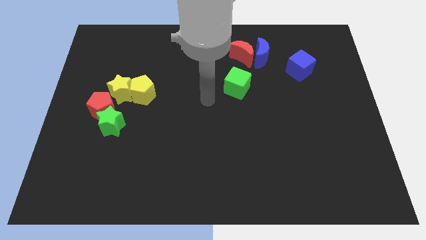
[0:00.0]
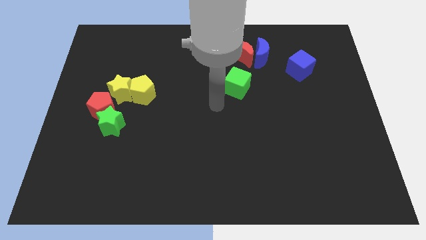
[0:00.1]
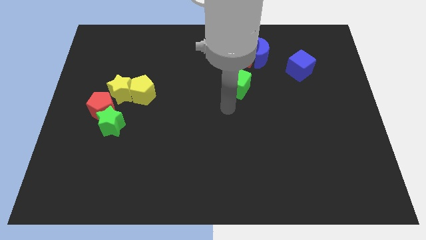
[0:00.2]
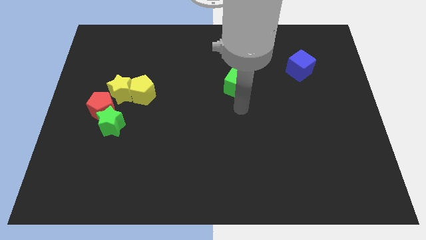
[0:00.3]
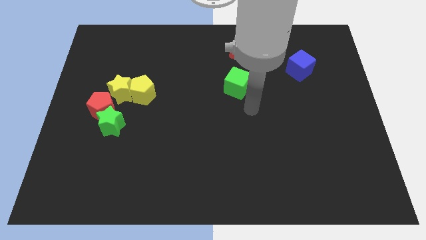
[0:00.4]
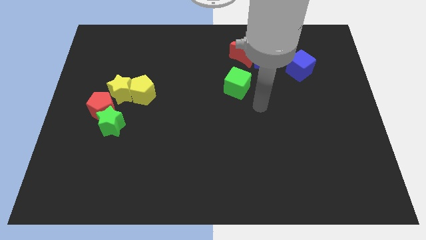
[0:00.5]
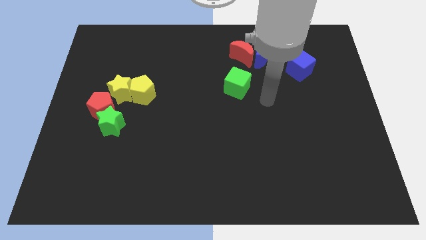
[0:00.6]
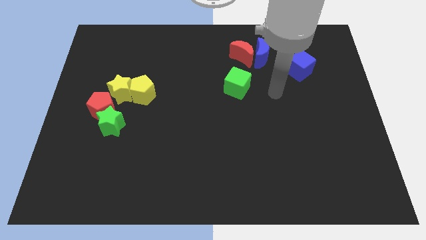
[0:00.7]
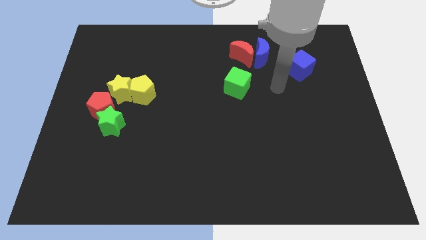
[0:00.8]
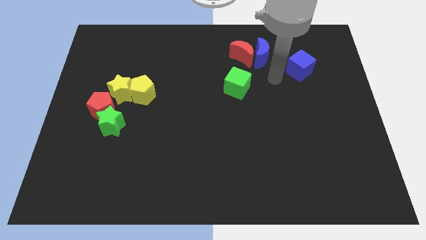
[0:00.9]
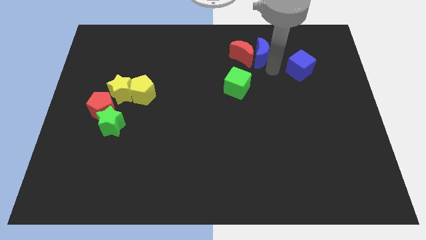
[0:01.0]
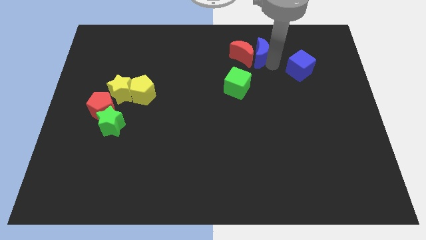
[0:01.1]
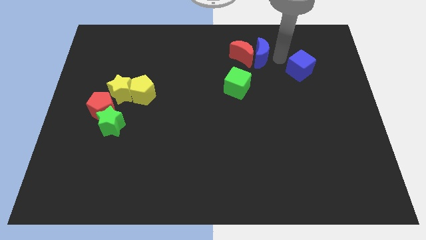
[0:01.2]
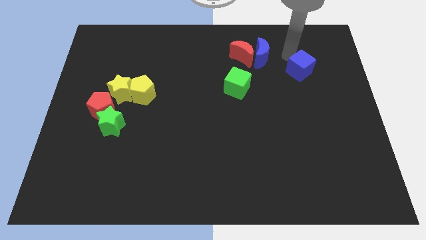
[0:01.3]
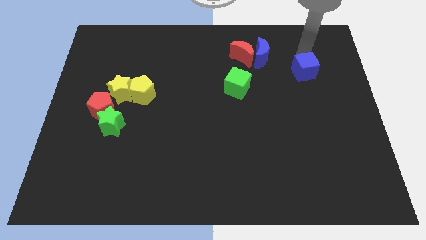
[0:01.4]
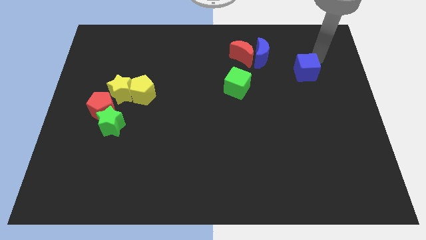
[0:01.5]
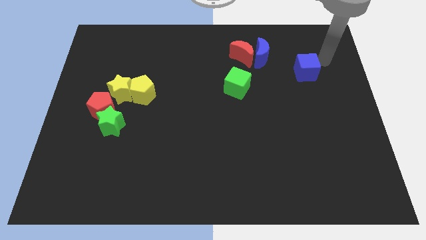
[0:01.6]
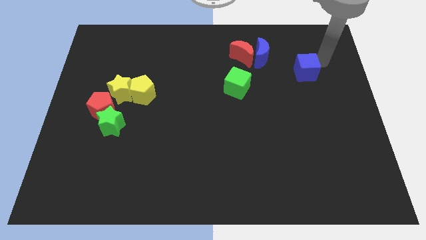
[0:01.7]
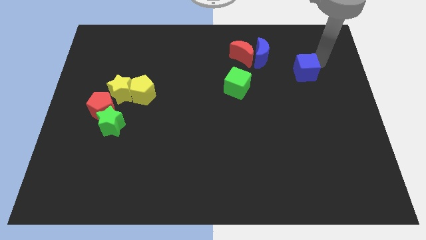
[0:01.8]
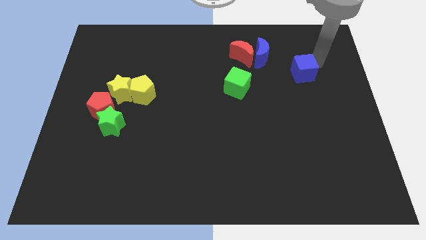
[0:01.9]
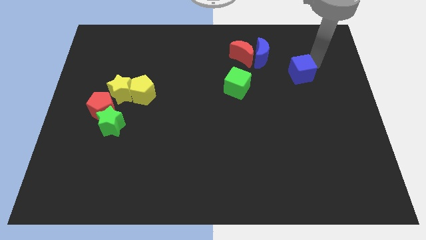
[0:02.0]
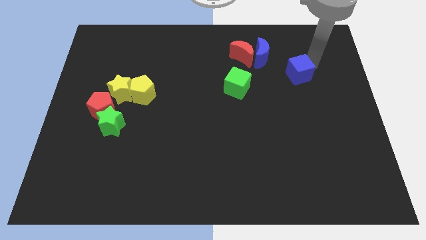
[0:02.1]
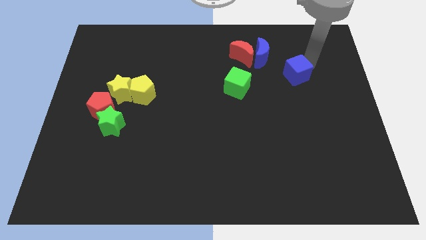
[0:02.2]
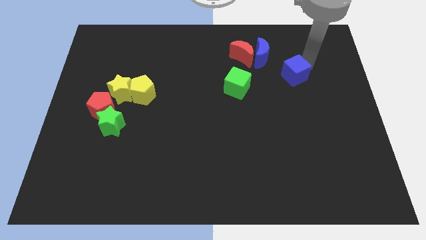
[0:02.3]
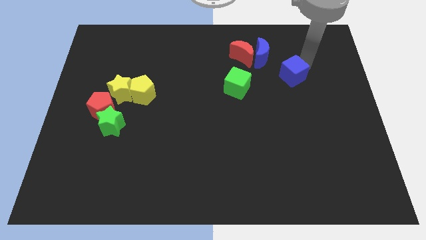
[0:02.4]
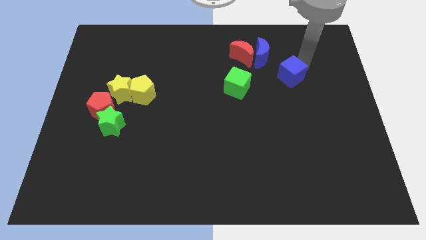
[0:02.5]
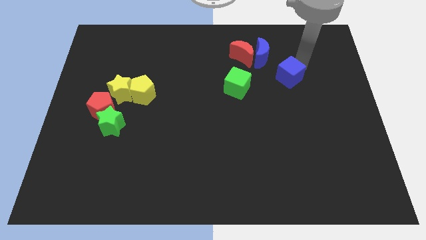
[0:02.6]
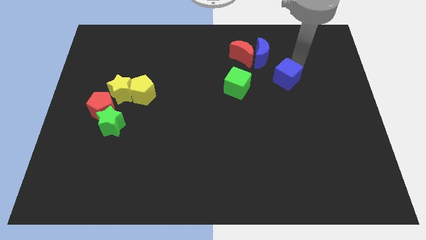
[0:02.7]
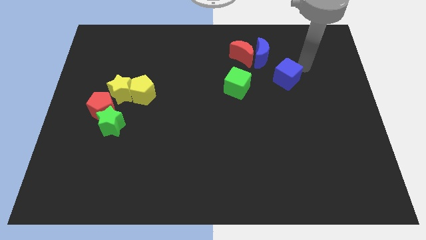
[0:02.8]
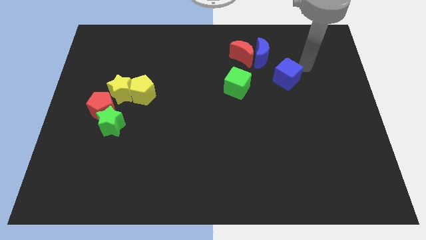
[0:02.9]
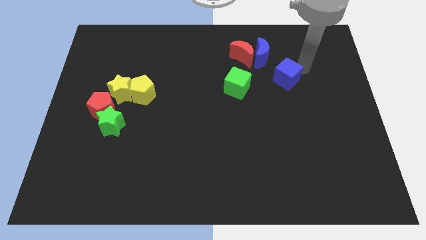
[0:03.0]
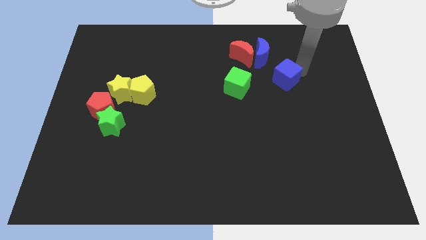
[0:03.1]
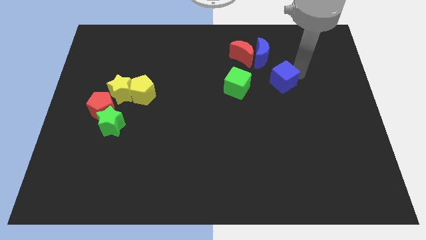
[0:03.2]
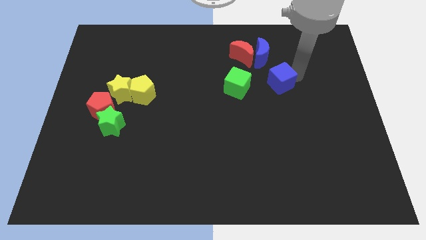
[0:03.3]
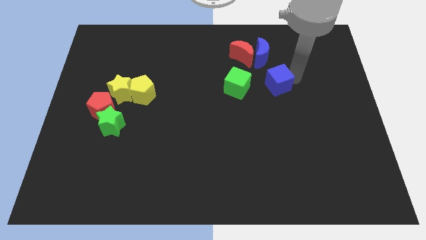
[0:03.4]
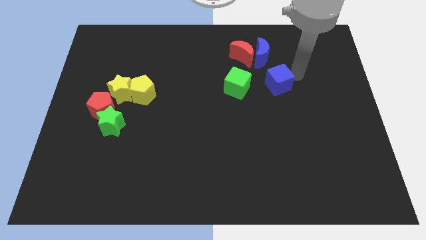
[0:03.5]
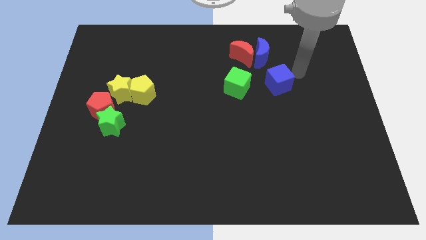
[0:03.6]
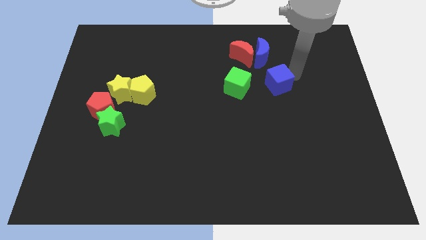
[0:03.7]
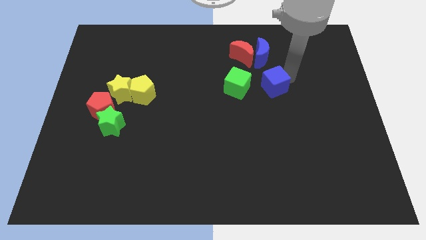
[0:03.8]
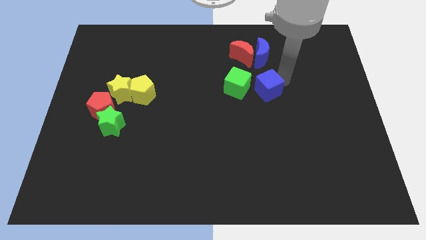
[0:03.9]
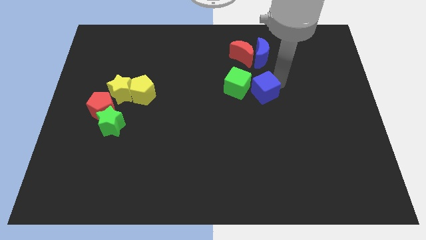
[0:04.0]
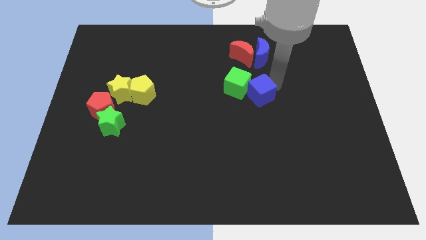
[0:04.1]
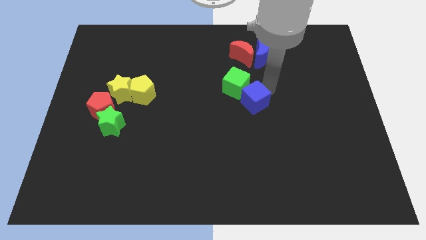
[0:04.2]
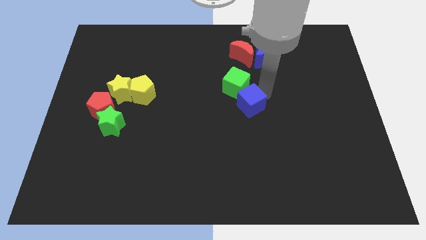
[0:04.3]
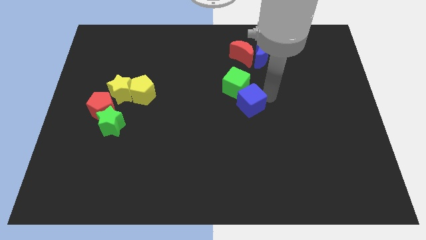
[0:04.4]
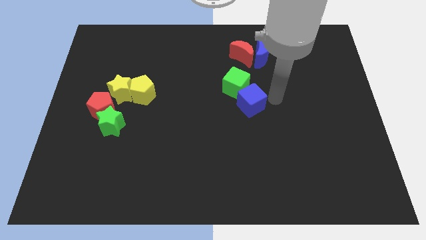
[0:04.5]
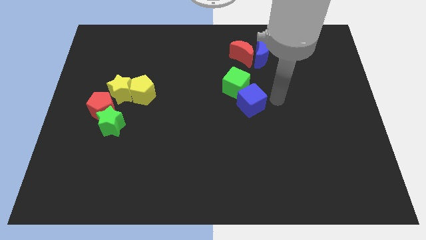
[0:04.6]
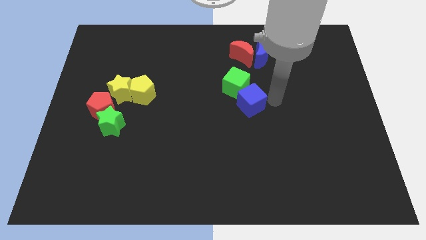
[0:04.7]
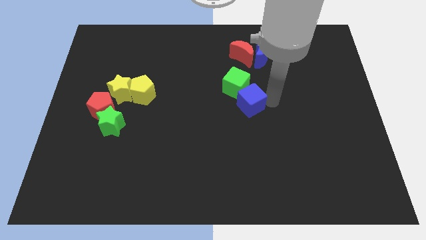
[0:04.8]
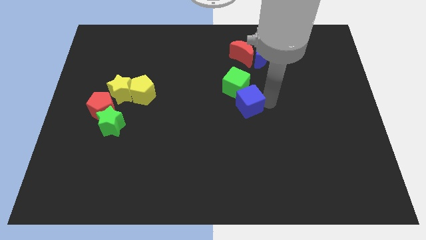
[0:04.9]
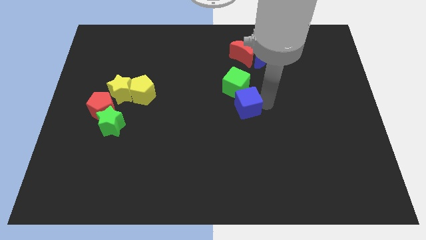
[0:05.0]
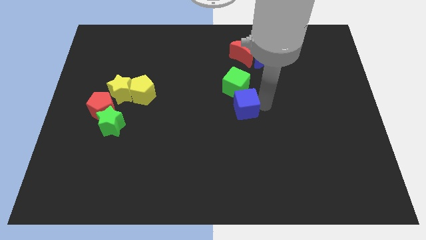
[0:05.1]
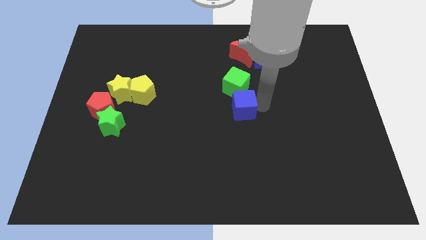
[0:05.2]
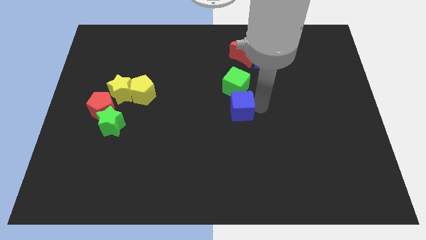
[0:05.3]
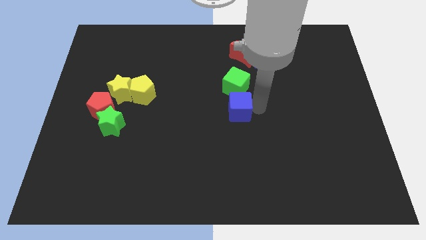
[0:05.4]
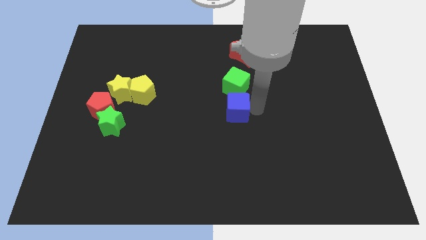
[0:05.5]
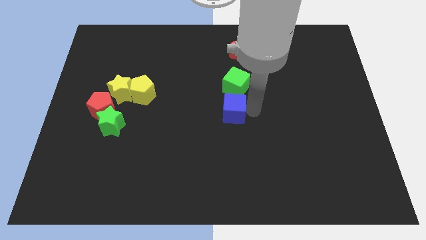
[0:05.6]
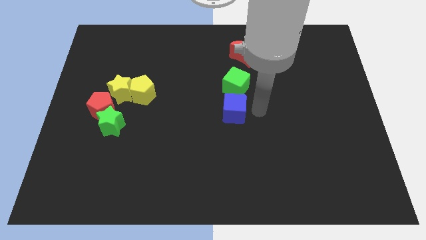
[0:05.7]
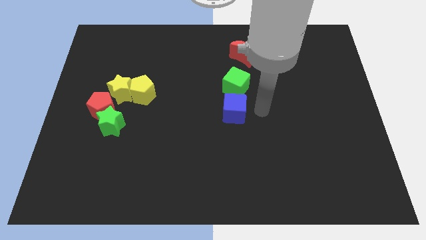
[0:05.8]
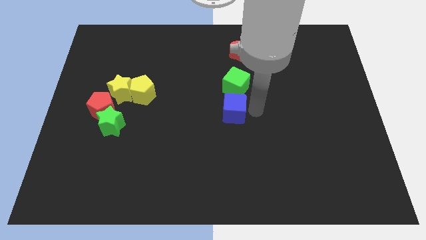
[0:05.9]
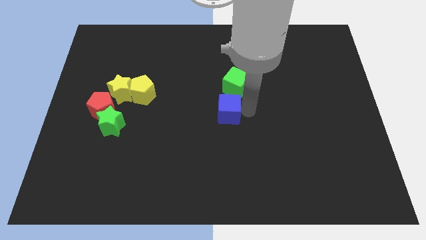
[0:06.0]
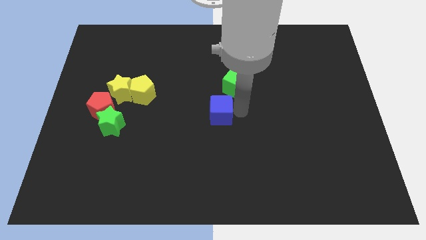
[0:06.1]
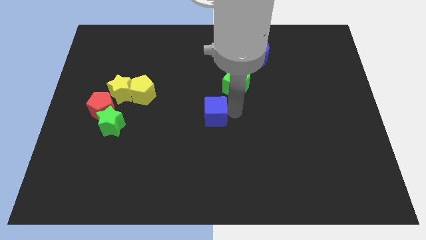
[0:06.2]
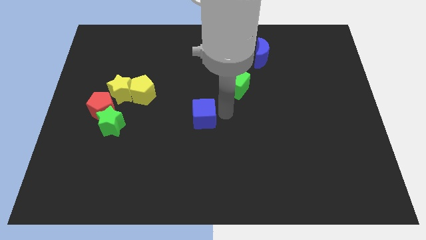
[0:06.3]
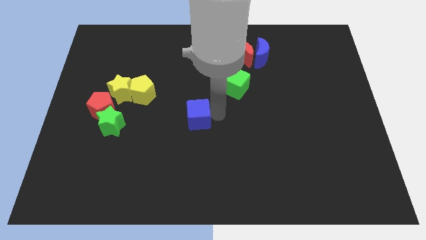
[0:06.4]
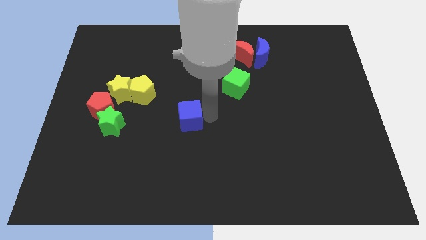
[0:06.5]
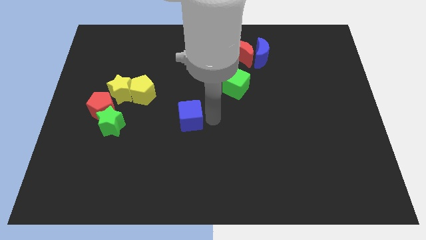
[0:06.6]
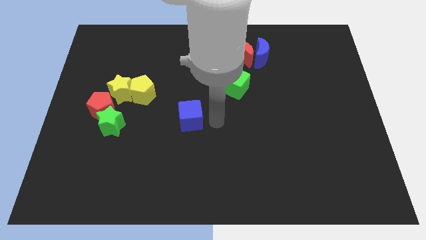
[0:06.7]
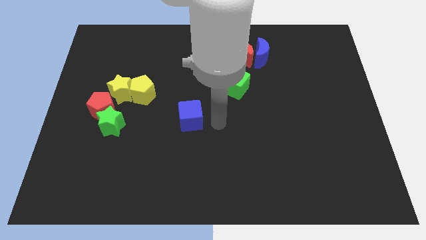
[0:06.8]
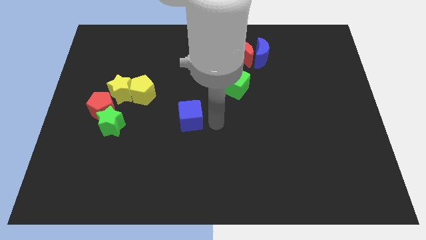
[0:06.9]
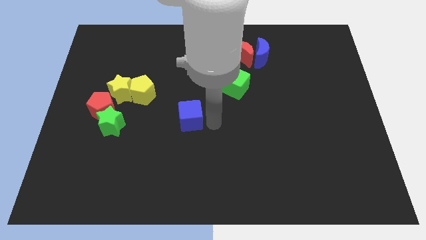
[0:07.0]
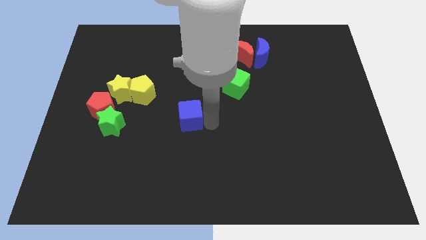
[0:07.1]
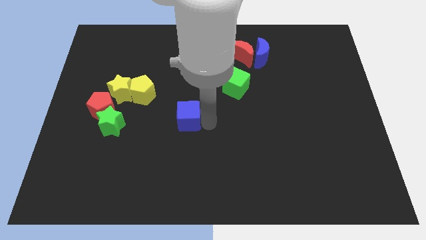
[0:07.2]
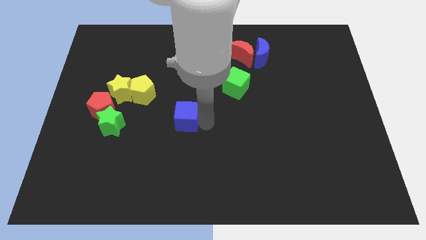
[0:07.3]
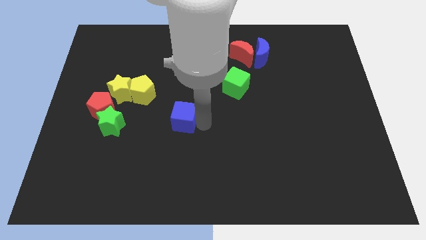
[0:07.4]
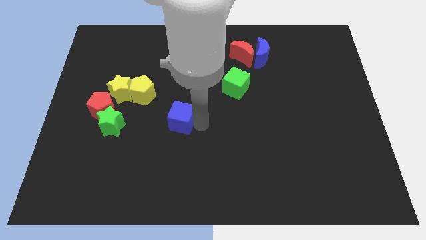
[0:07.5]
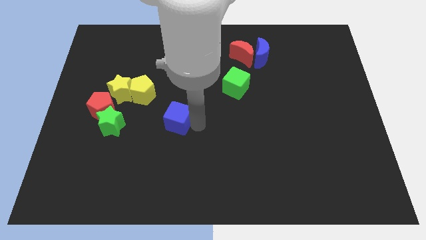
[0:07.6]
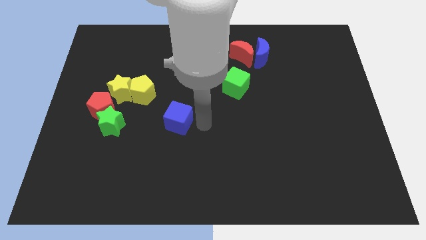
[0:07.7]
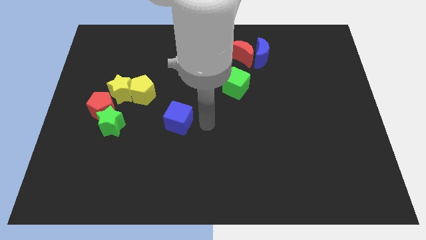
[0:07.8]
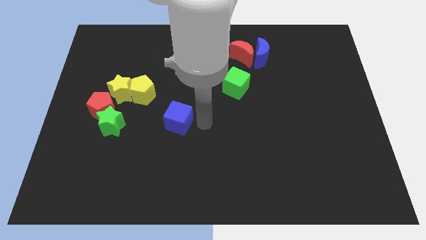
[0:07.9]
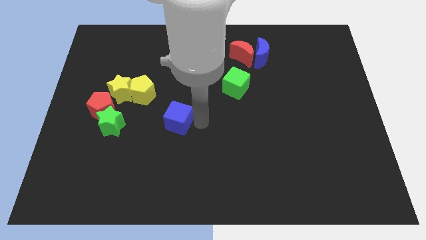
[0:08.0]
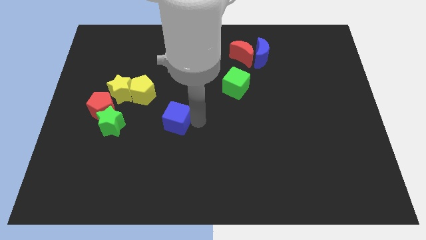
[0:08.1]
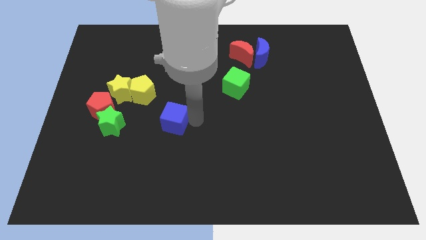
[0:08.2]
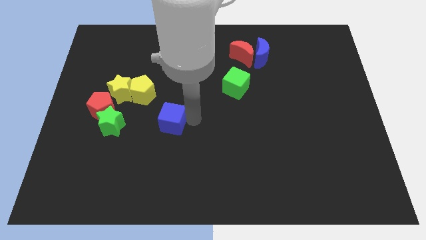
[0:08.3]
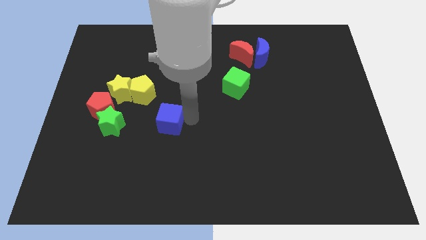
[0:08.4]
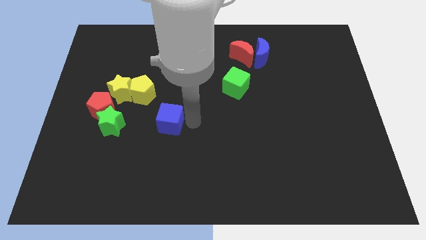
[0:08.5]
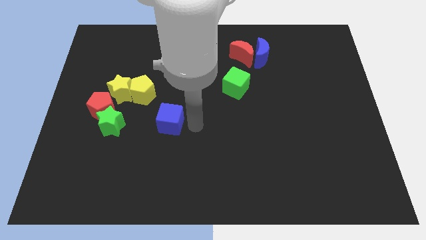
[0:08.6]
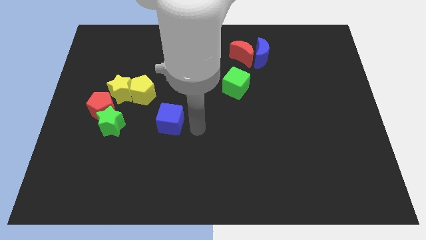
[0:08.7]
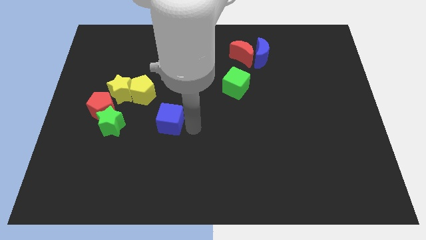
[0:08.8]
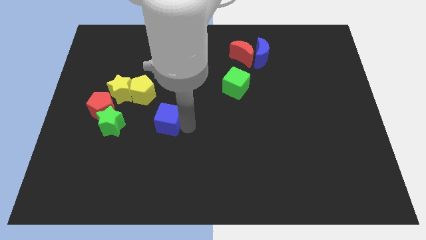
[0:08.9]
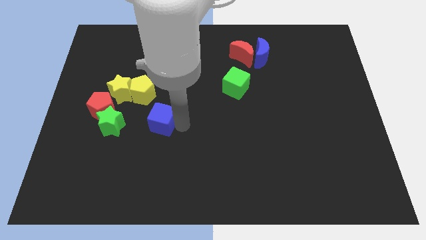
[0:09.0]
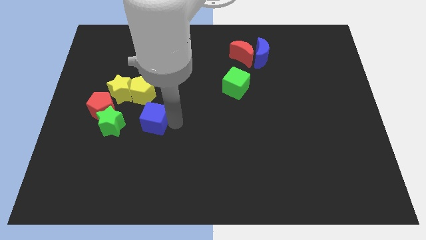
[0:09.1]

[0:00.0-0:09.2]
push the blue cube to the bottom of the yellow pentagon
